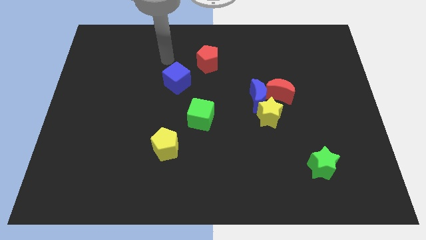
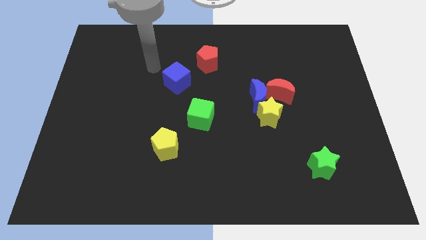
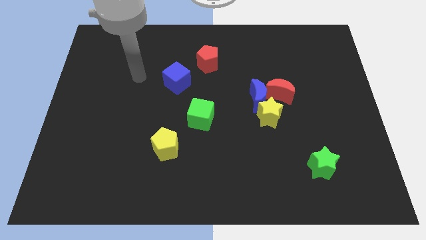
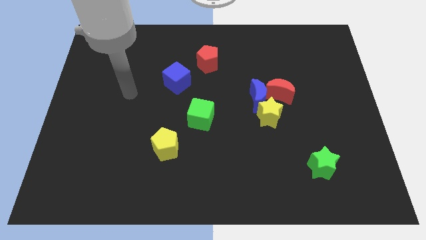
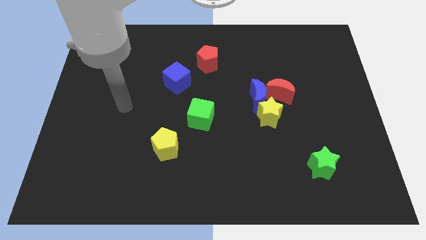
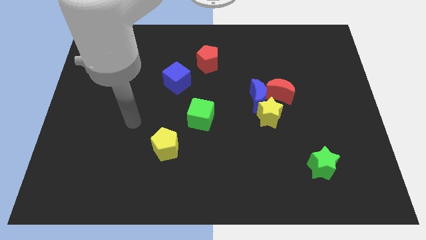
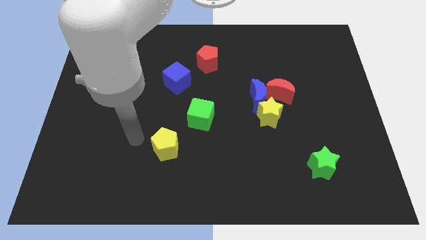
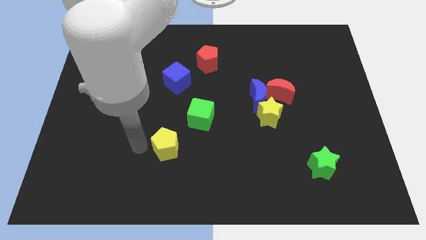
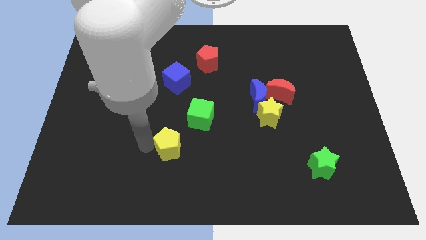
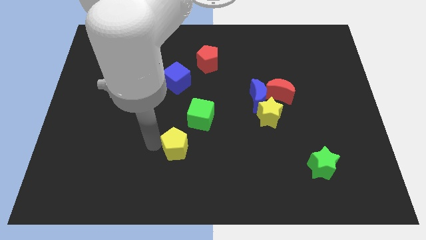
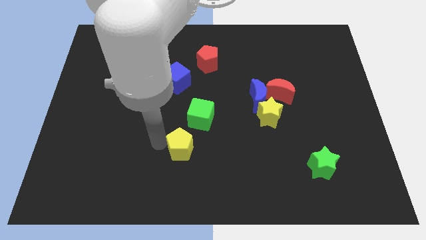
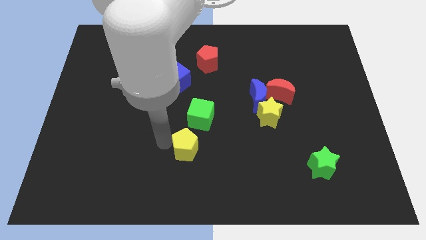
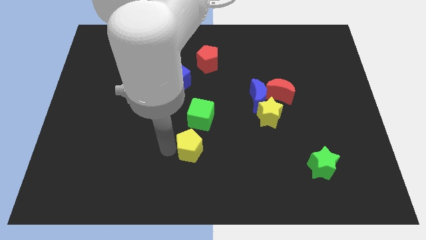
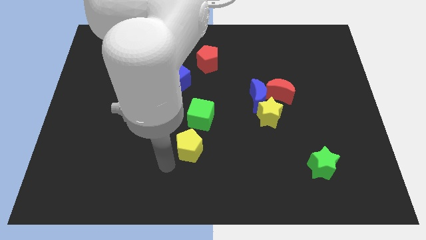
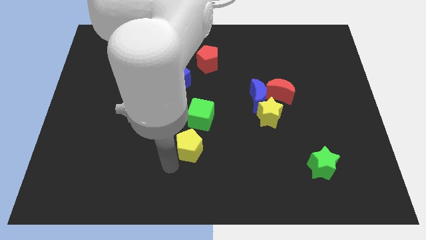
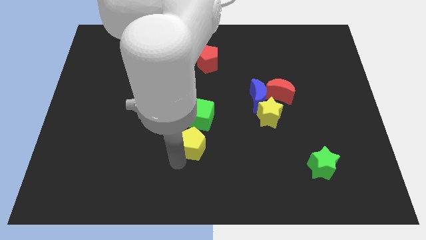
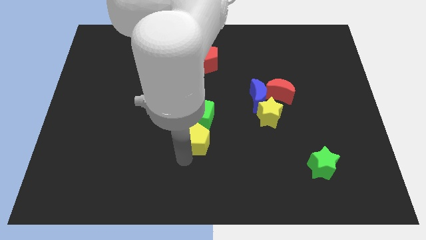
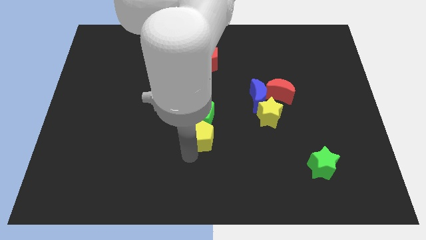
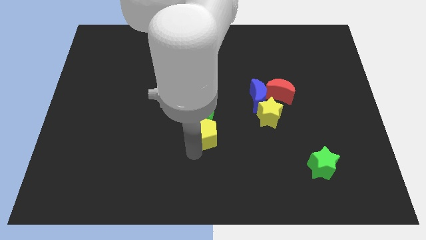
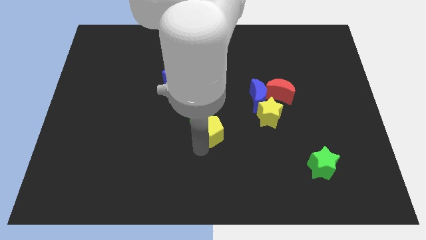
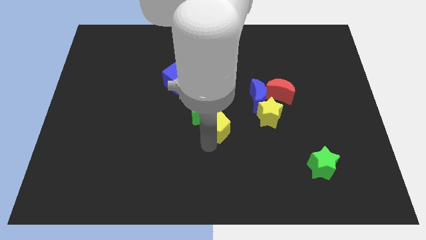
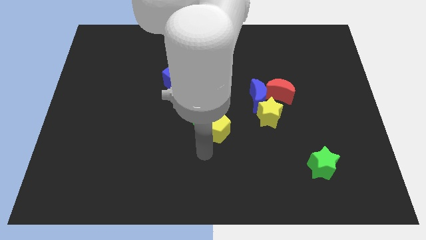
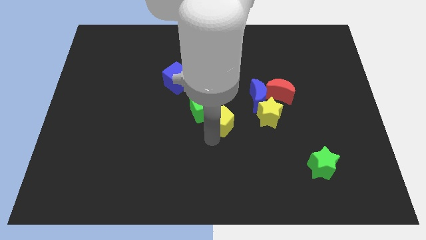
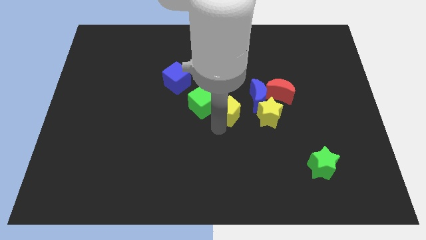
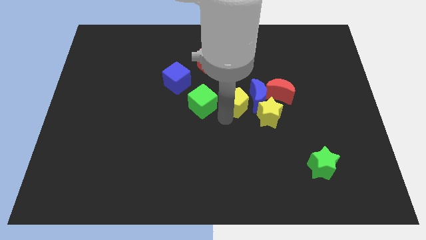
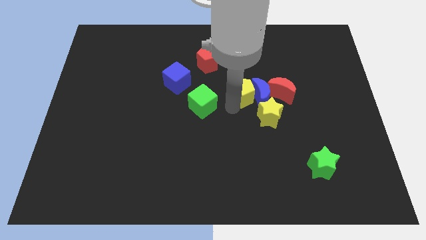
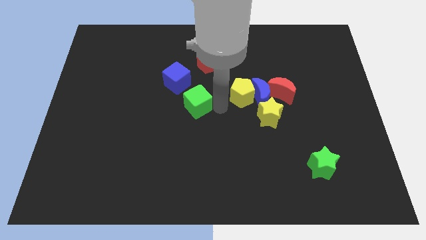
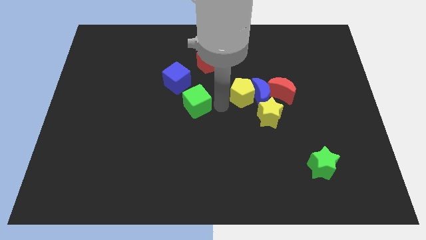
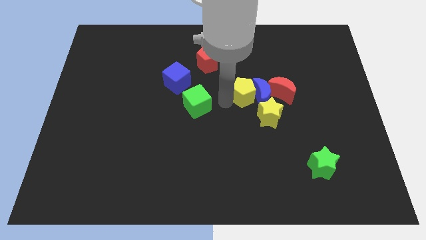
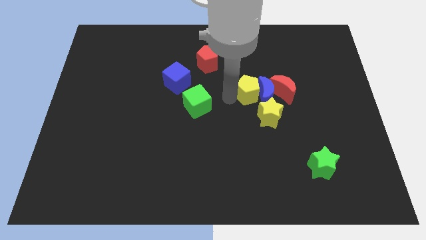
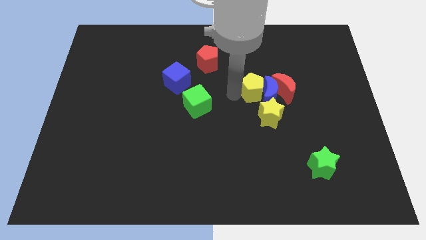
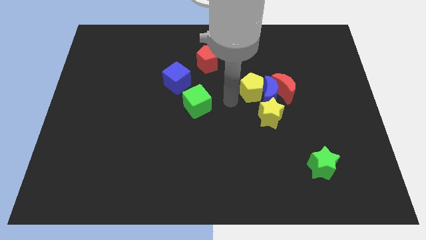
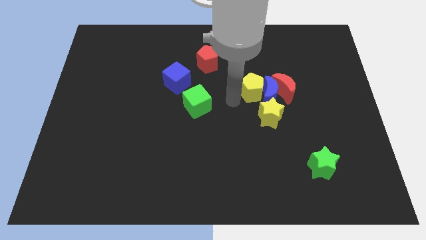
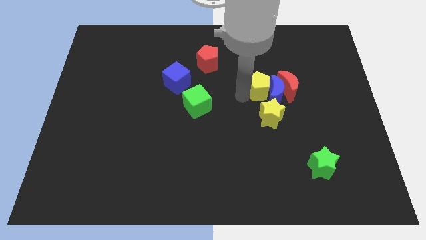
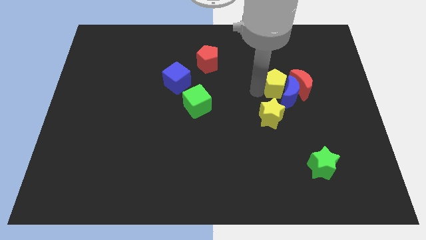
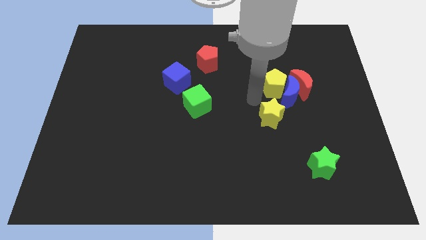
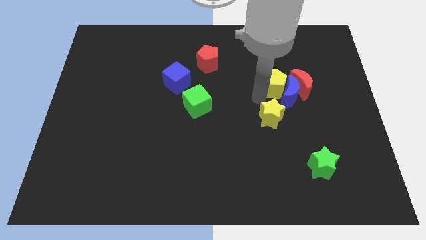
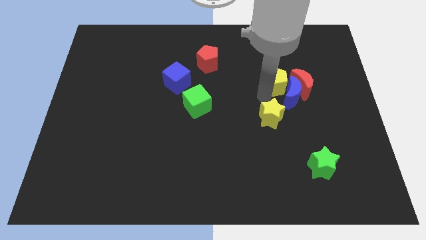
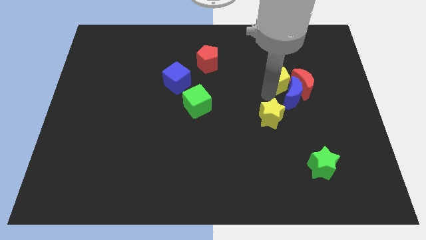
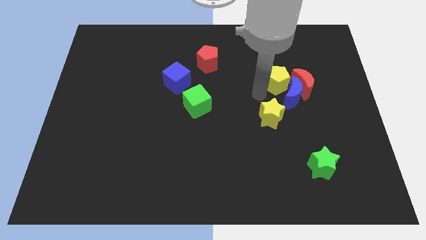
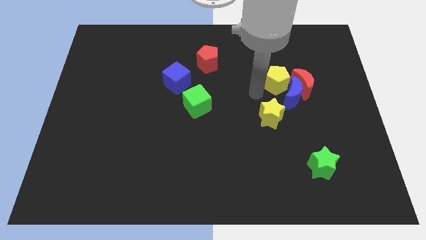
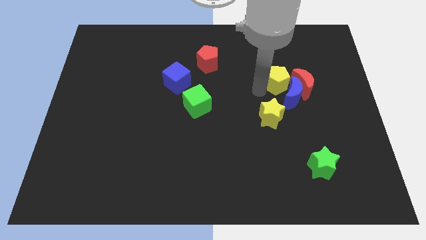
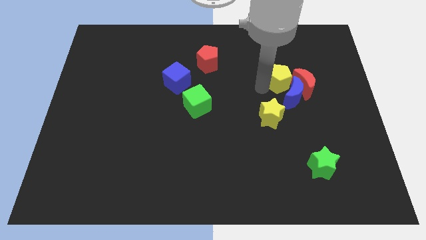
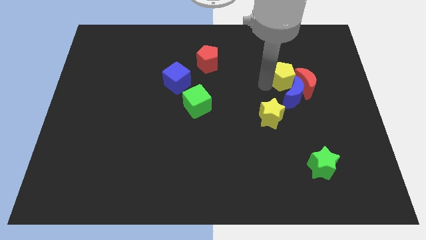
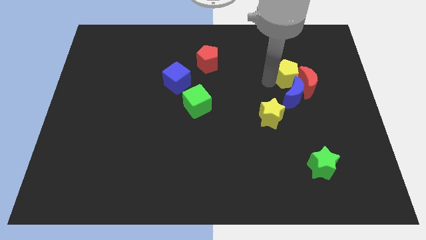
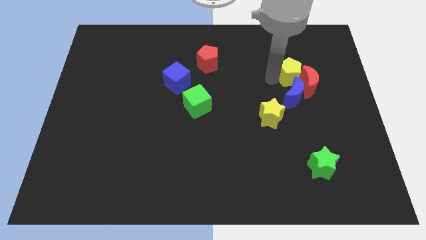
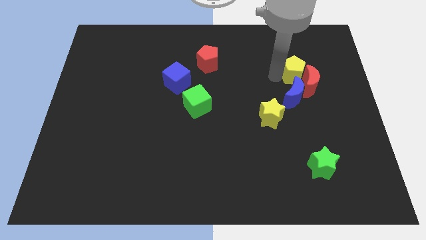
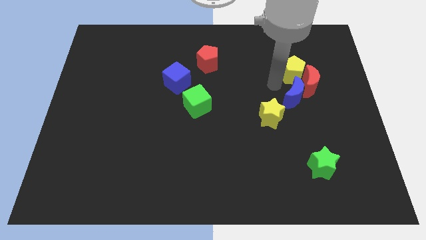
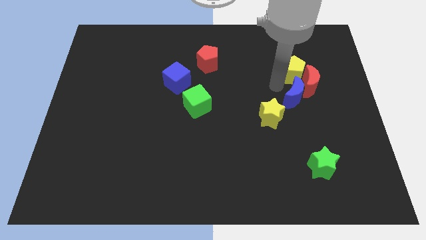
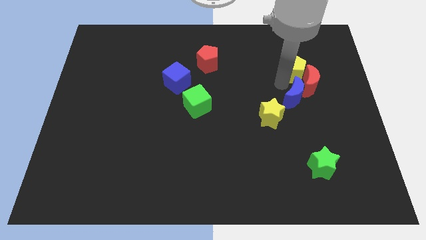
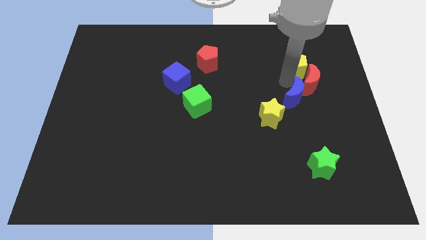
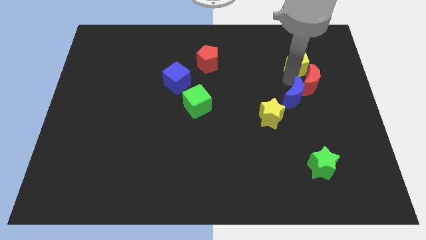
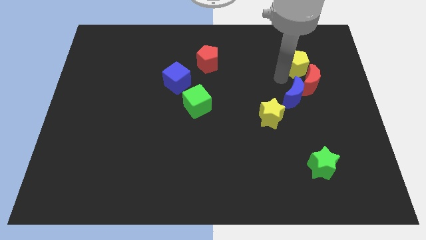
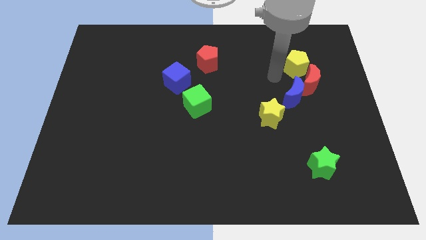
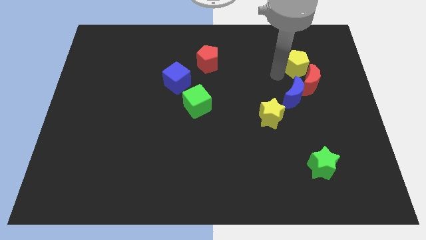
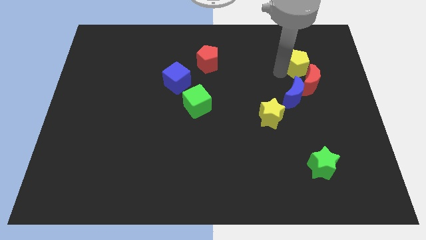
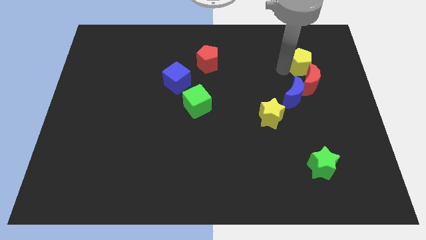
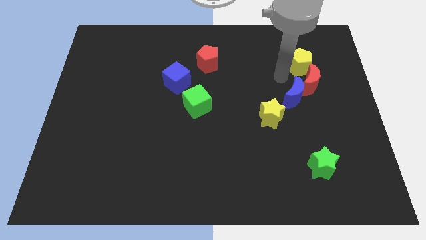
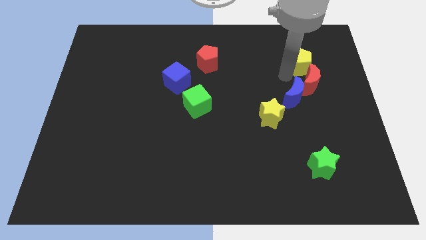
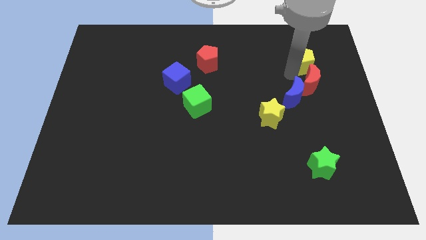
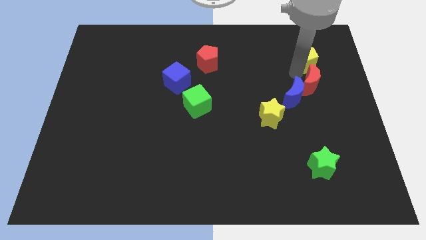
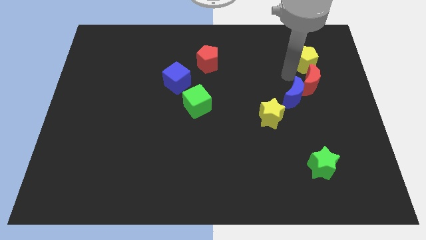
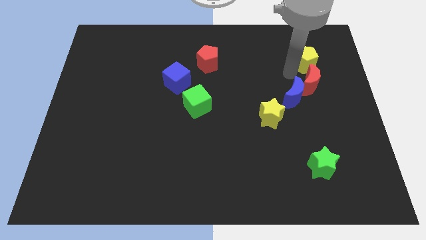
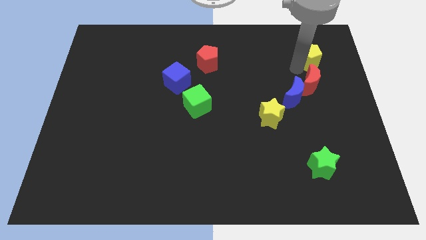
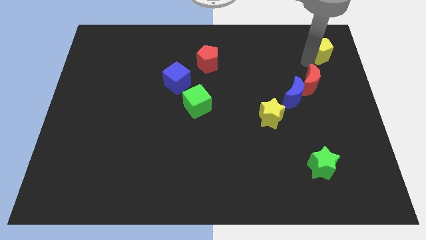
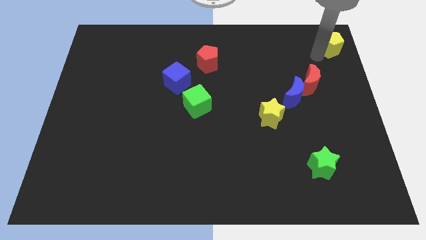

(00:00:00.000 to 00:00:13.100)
move the yellow pentagon to the top right corner
